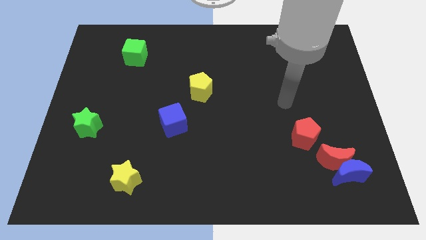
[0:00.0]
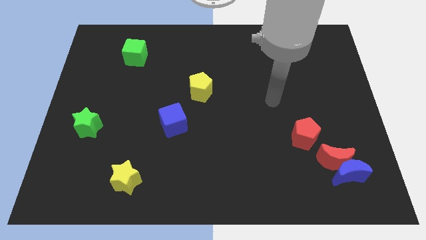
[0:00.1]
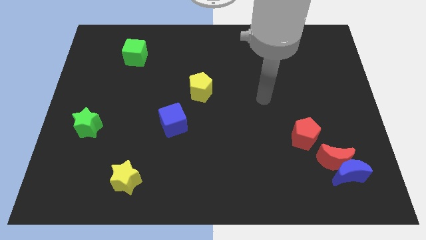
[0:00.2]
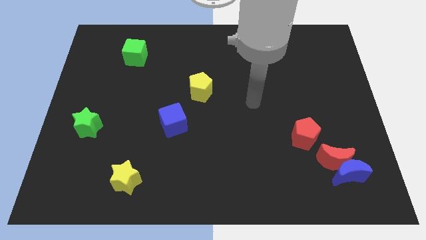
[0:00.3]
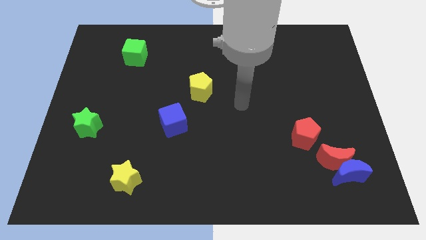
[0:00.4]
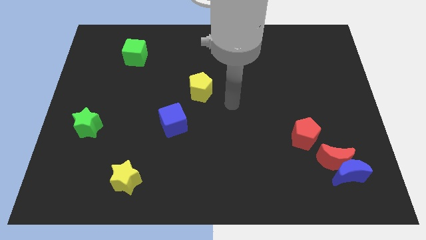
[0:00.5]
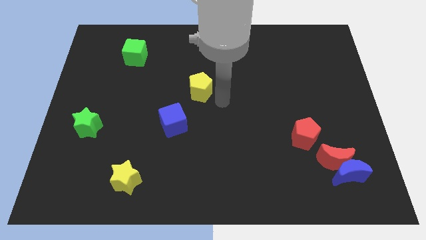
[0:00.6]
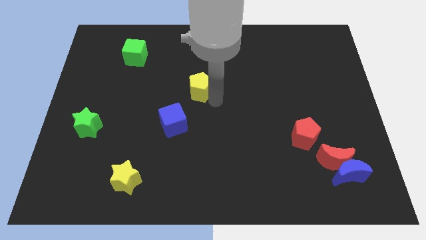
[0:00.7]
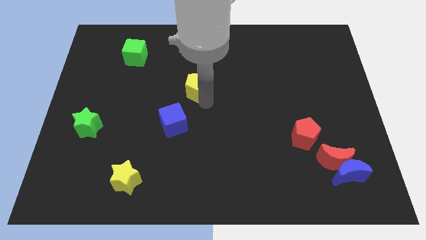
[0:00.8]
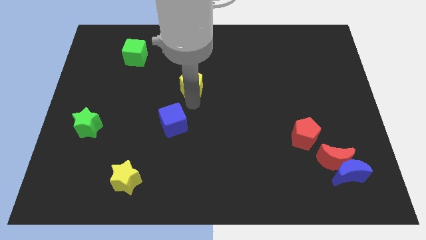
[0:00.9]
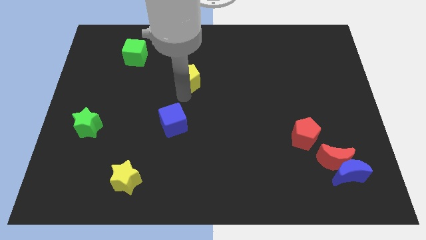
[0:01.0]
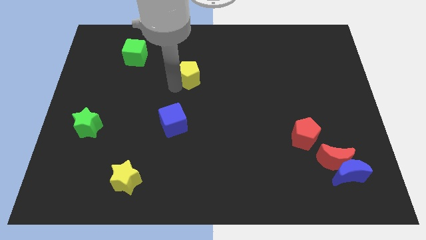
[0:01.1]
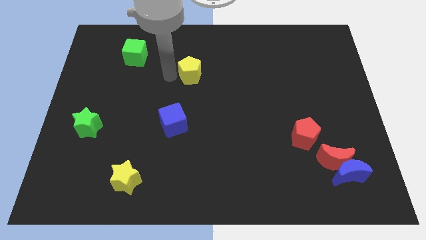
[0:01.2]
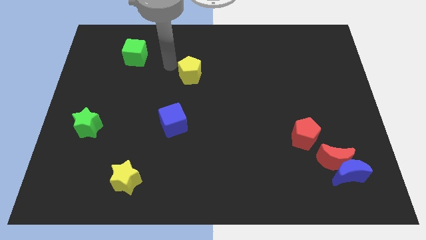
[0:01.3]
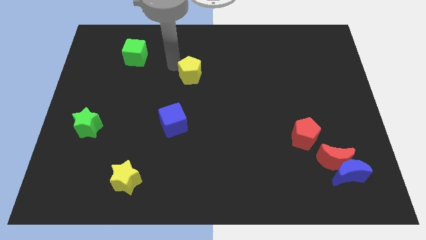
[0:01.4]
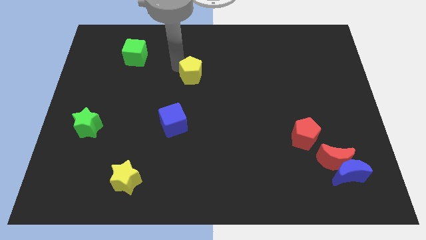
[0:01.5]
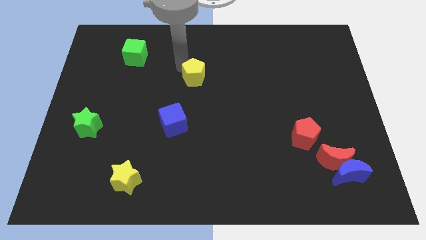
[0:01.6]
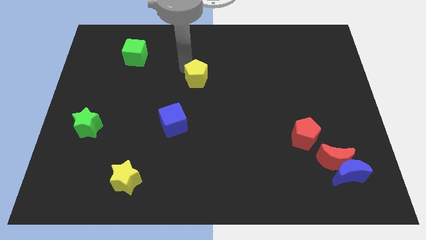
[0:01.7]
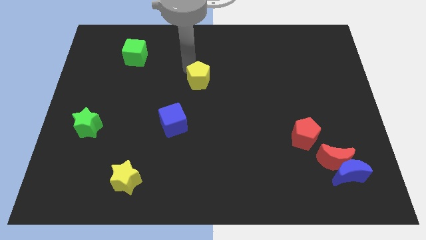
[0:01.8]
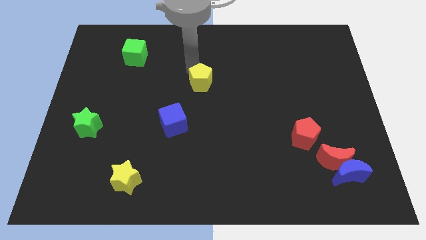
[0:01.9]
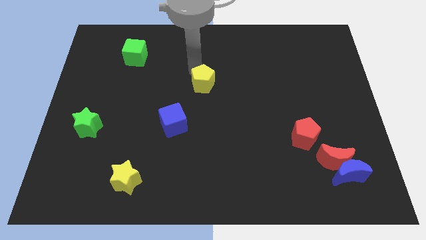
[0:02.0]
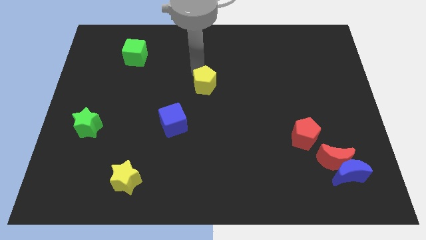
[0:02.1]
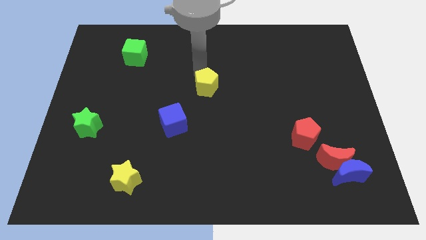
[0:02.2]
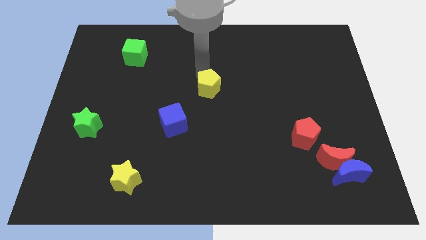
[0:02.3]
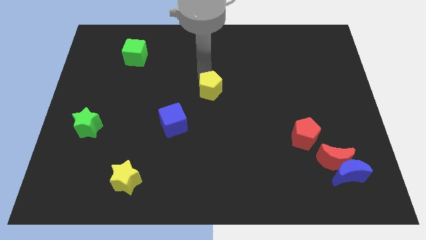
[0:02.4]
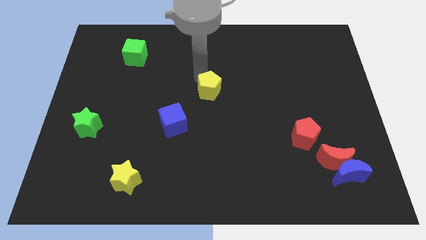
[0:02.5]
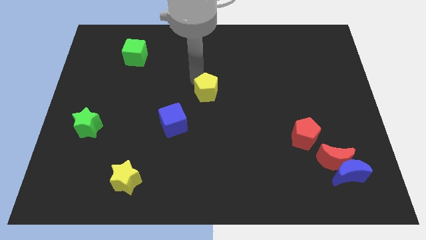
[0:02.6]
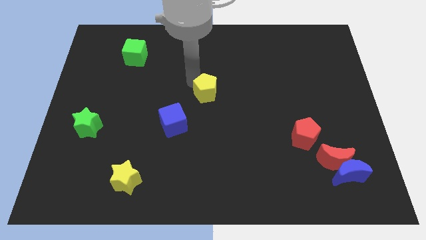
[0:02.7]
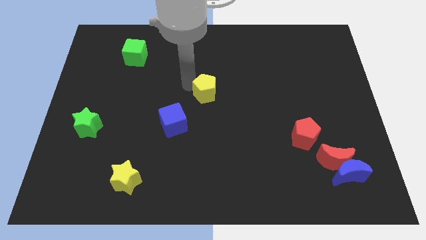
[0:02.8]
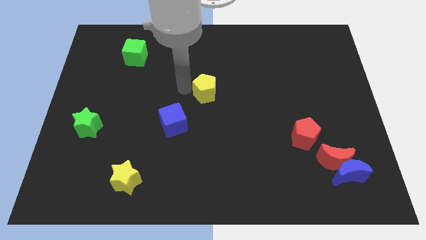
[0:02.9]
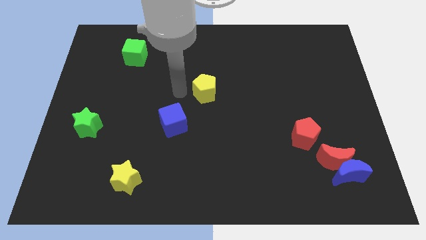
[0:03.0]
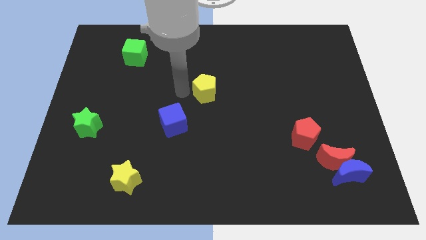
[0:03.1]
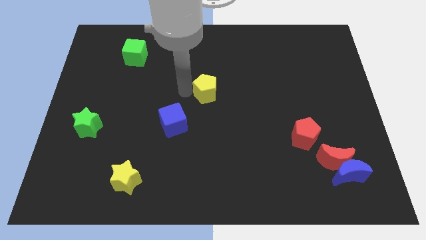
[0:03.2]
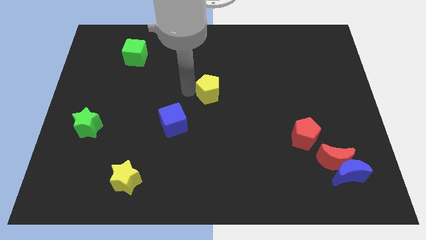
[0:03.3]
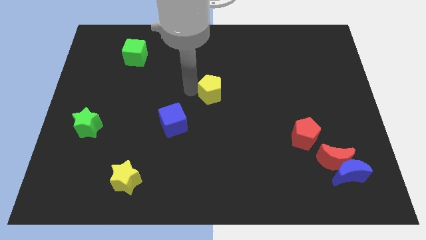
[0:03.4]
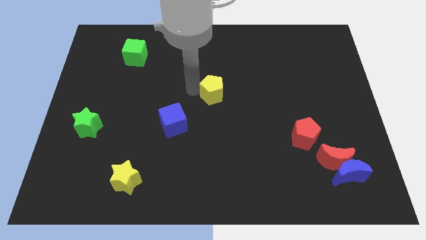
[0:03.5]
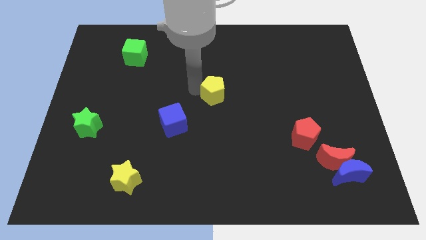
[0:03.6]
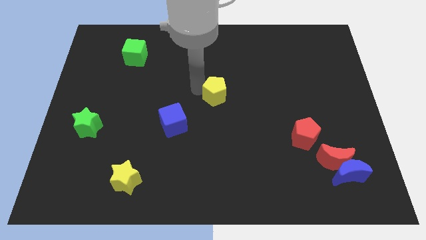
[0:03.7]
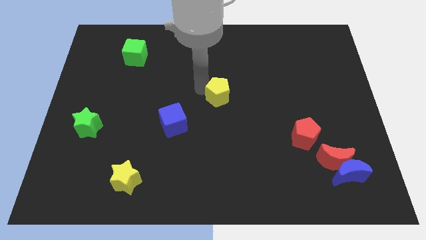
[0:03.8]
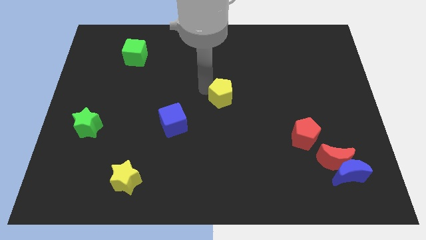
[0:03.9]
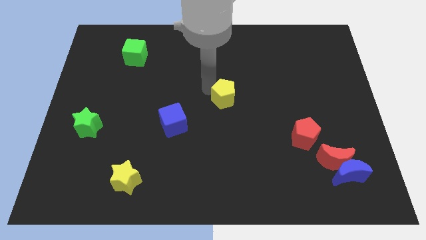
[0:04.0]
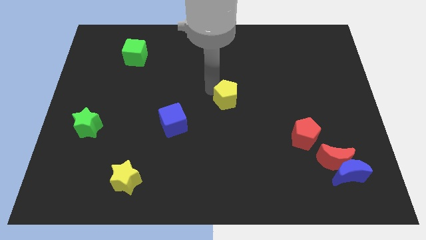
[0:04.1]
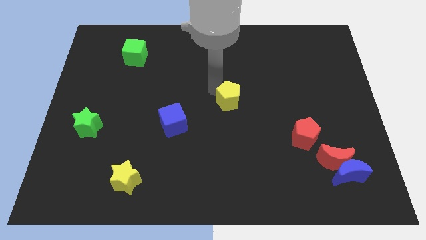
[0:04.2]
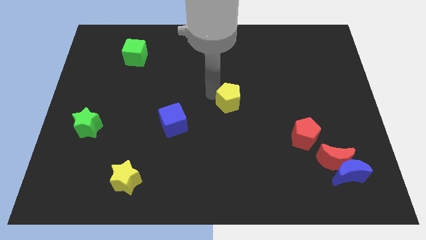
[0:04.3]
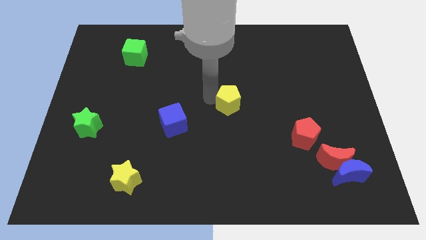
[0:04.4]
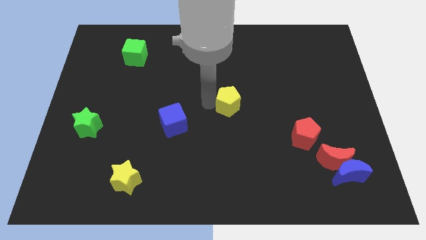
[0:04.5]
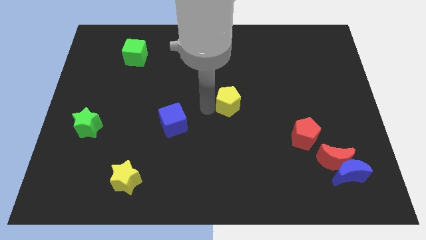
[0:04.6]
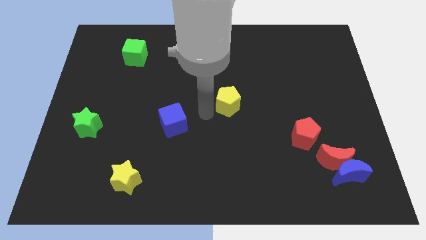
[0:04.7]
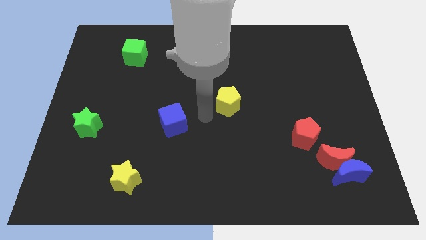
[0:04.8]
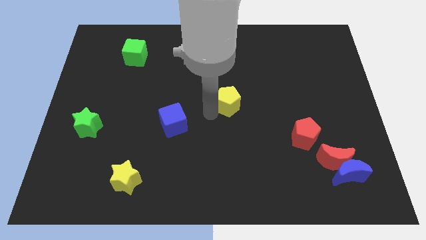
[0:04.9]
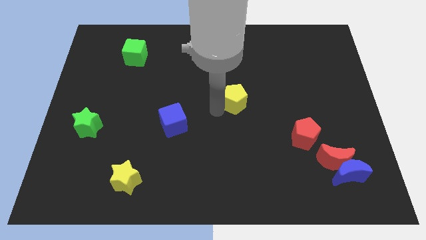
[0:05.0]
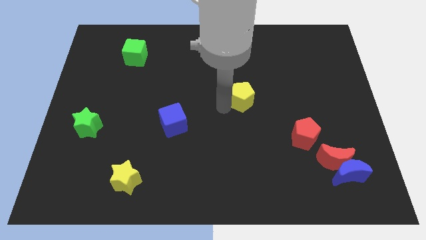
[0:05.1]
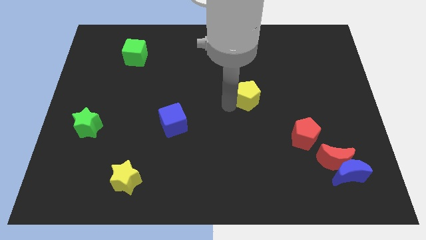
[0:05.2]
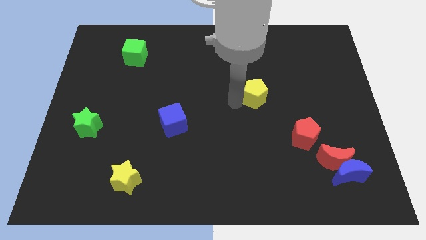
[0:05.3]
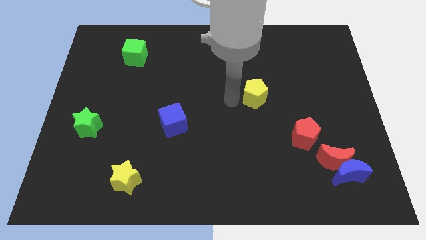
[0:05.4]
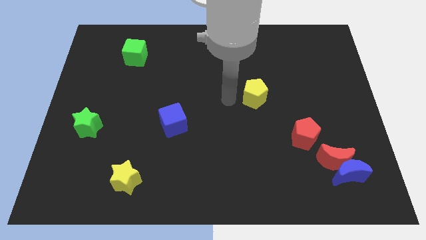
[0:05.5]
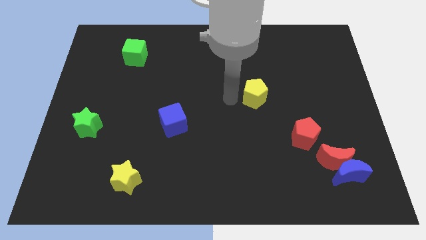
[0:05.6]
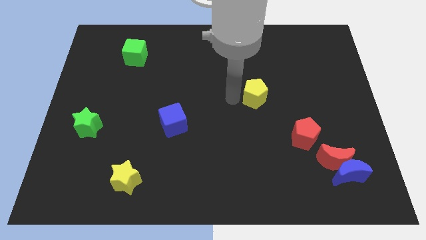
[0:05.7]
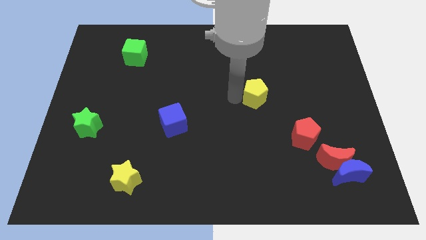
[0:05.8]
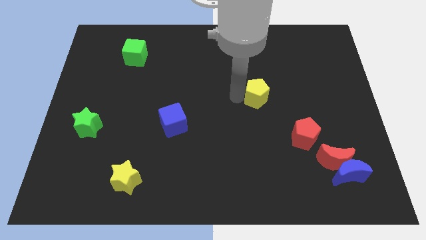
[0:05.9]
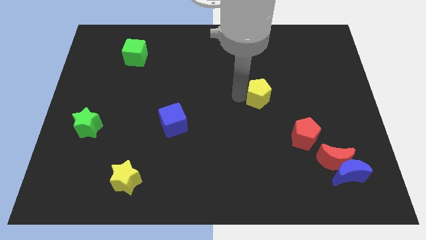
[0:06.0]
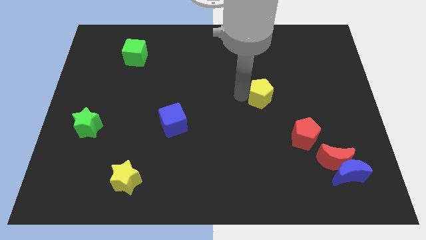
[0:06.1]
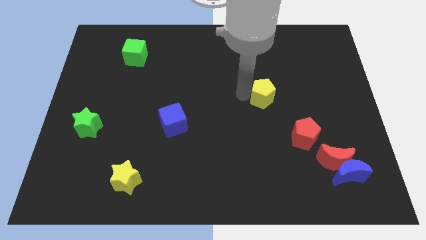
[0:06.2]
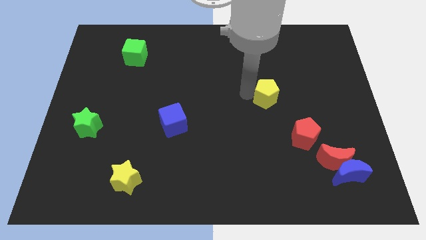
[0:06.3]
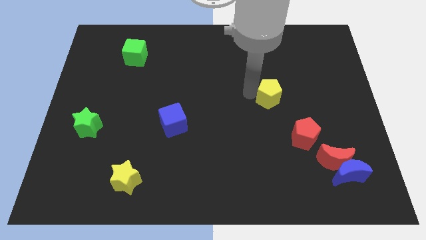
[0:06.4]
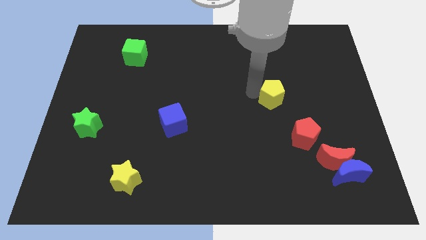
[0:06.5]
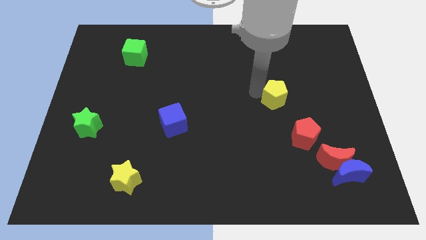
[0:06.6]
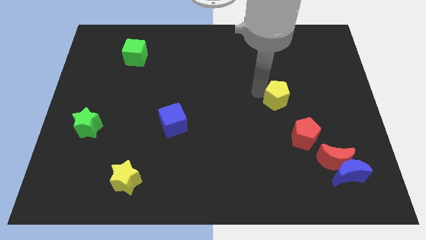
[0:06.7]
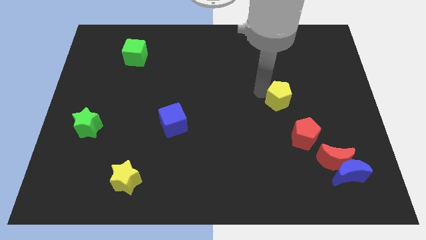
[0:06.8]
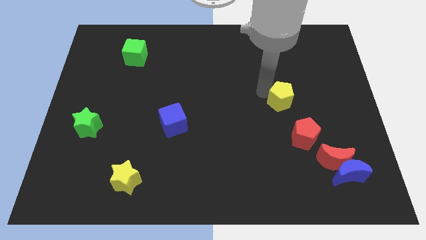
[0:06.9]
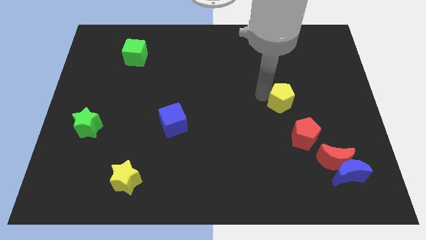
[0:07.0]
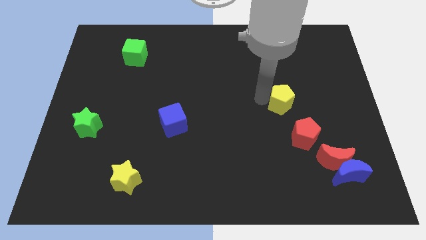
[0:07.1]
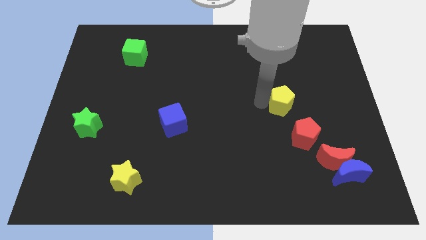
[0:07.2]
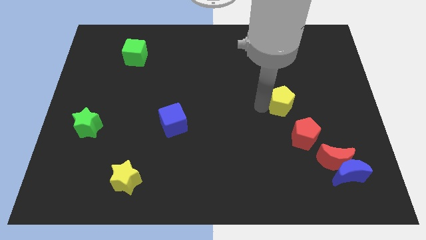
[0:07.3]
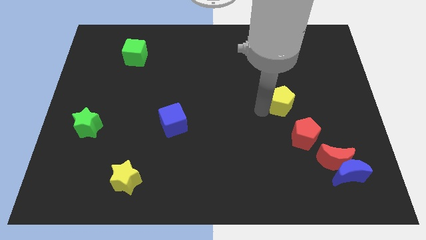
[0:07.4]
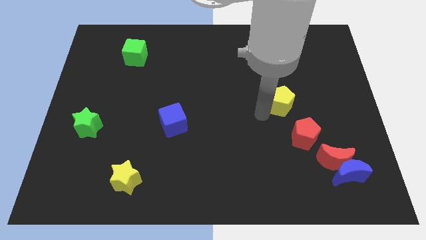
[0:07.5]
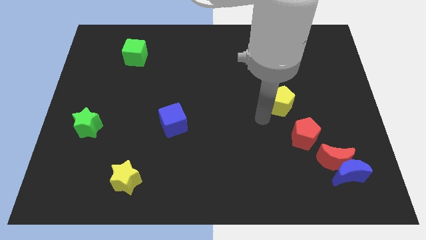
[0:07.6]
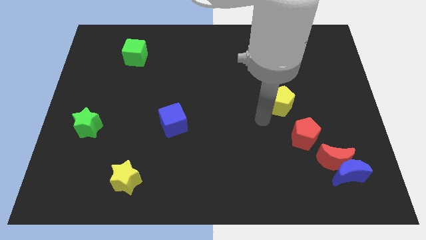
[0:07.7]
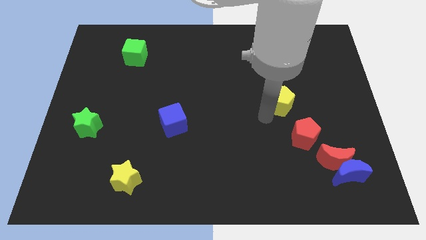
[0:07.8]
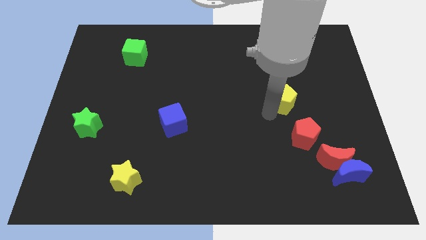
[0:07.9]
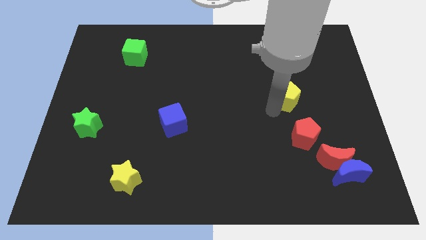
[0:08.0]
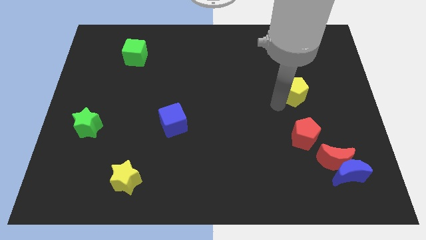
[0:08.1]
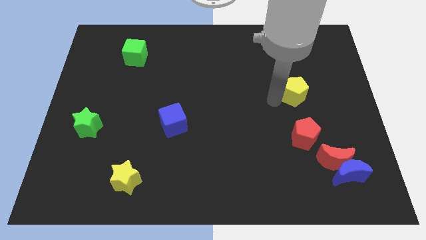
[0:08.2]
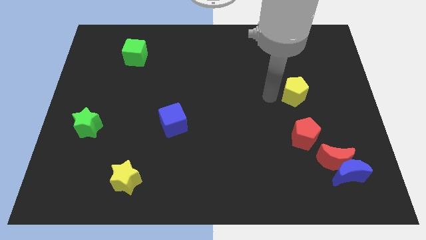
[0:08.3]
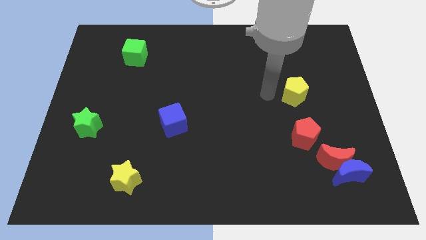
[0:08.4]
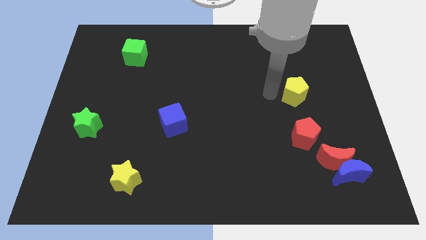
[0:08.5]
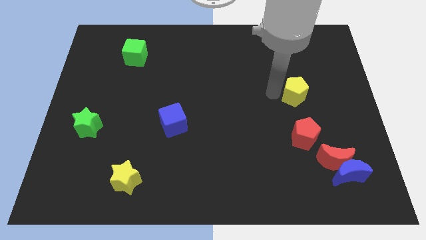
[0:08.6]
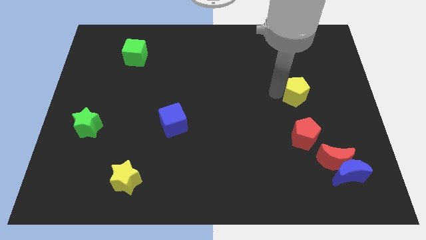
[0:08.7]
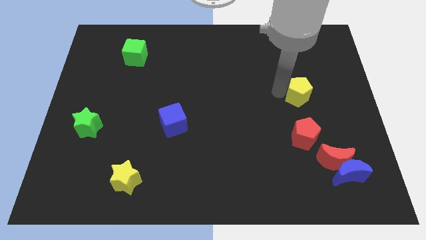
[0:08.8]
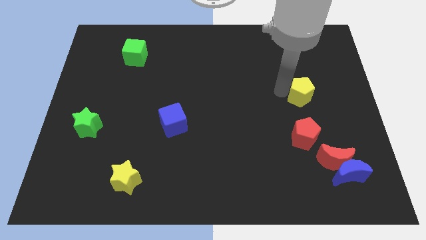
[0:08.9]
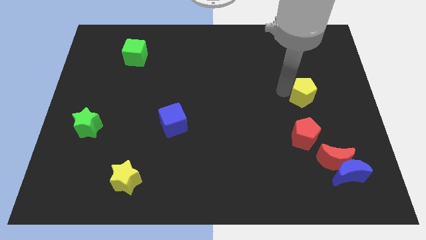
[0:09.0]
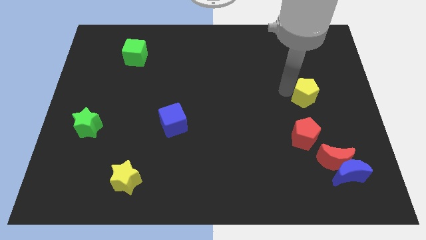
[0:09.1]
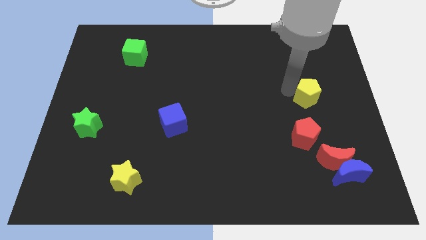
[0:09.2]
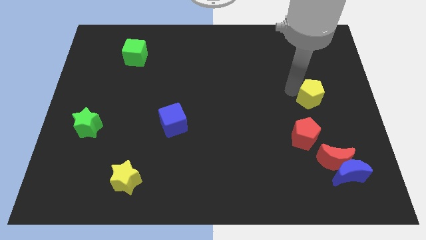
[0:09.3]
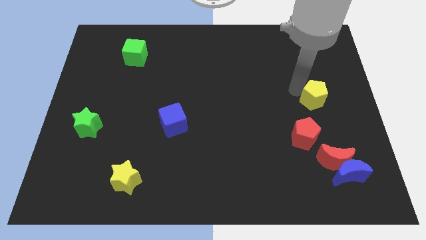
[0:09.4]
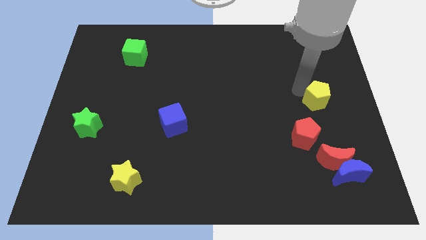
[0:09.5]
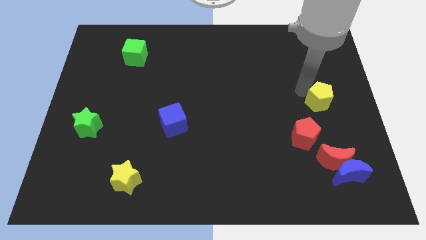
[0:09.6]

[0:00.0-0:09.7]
slide the yellow pentagon to the center right
